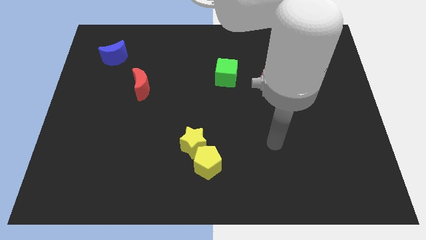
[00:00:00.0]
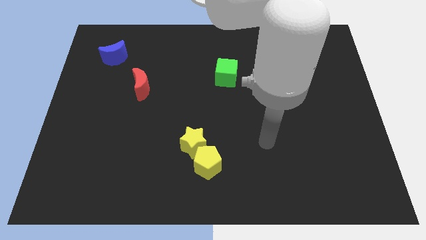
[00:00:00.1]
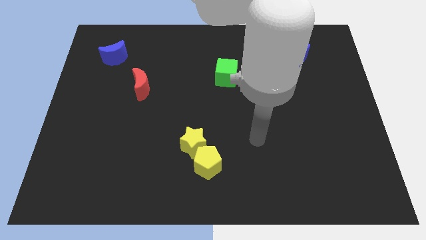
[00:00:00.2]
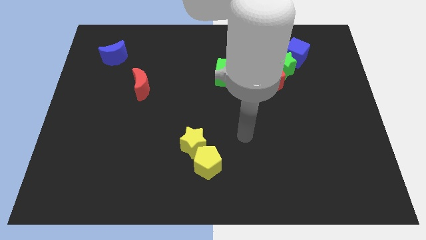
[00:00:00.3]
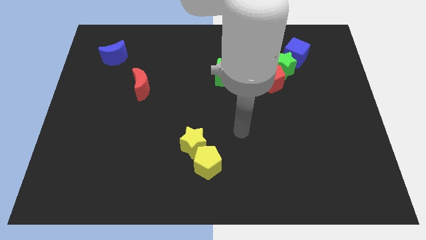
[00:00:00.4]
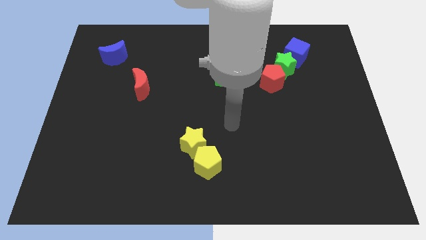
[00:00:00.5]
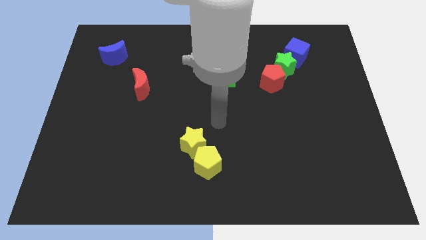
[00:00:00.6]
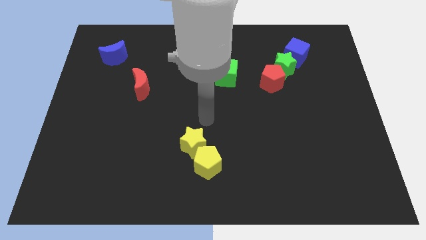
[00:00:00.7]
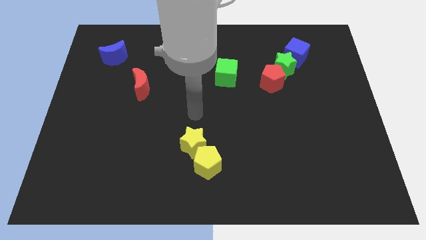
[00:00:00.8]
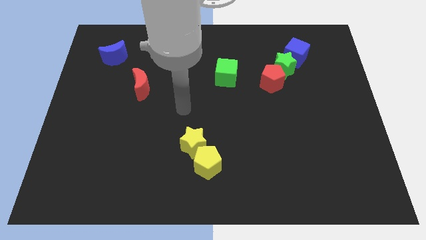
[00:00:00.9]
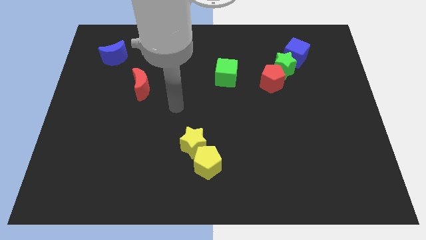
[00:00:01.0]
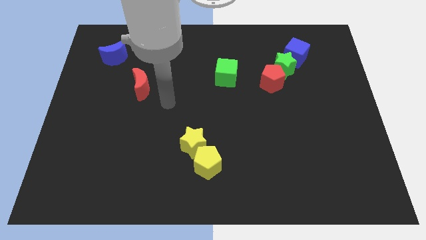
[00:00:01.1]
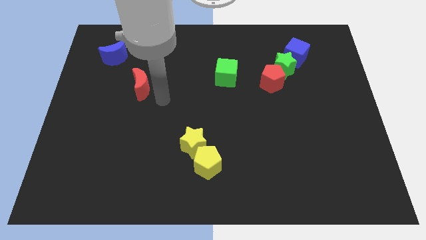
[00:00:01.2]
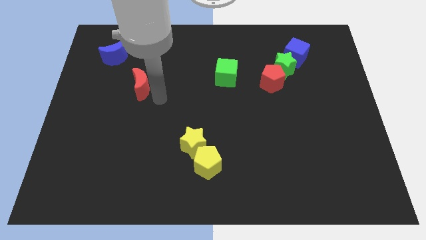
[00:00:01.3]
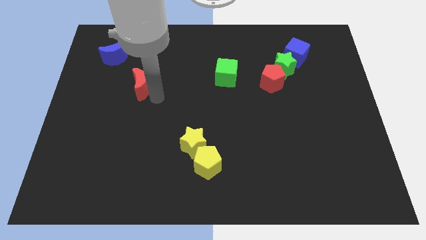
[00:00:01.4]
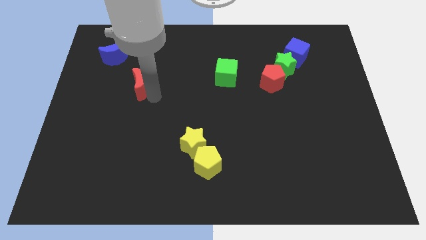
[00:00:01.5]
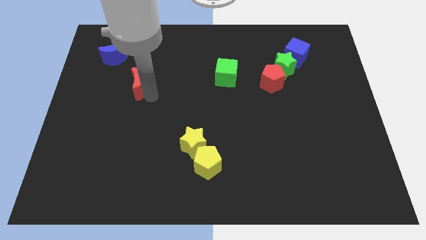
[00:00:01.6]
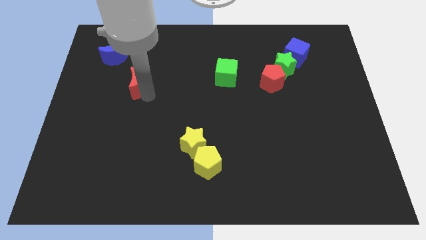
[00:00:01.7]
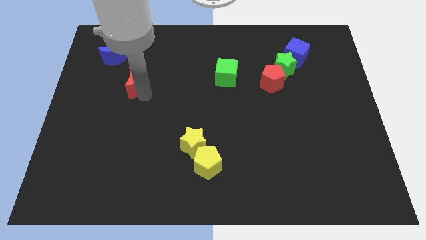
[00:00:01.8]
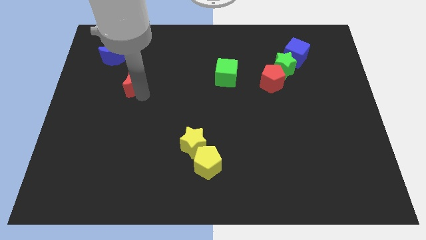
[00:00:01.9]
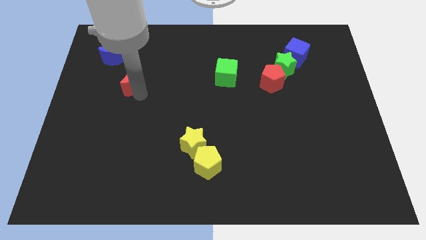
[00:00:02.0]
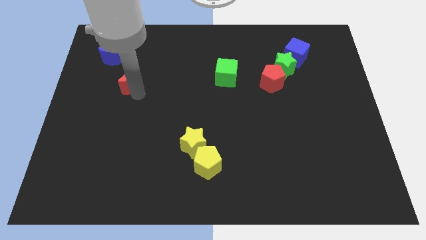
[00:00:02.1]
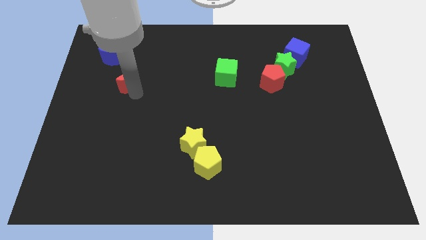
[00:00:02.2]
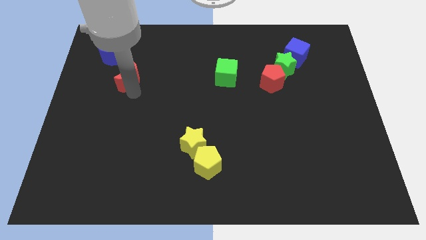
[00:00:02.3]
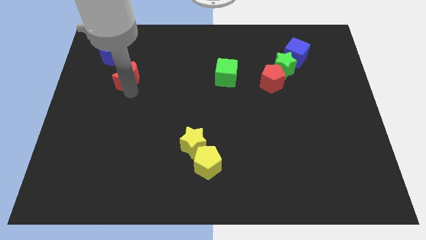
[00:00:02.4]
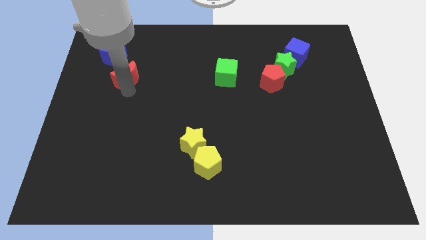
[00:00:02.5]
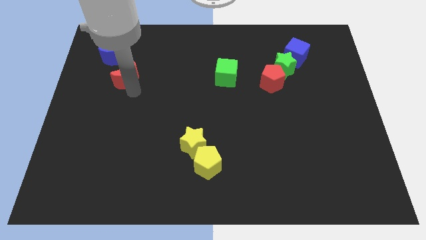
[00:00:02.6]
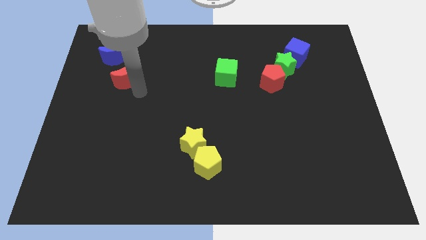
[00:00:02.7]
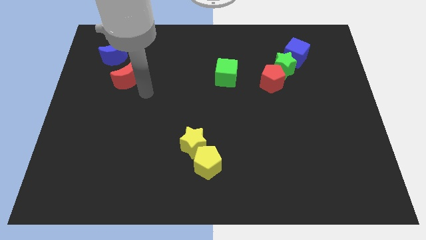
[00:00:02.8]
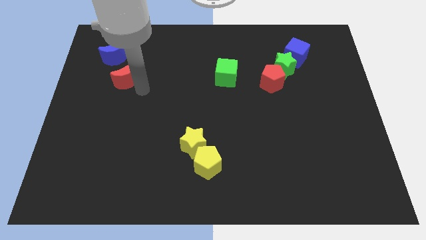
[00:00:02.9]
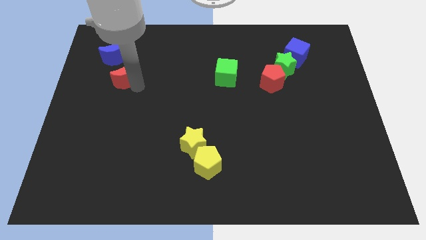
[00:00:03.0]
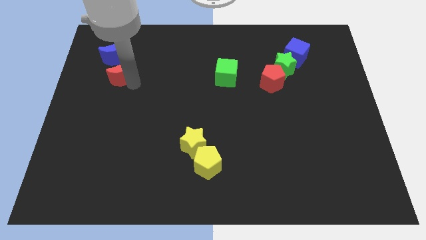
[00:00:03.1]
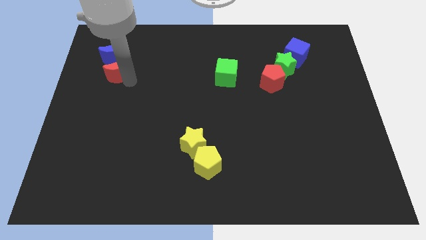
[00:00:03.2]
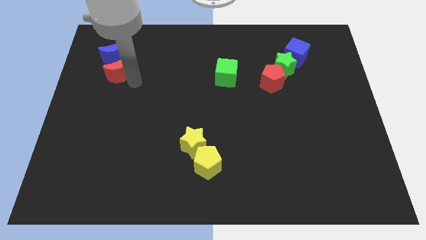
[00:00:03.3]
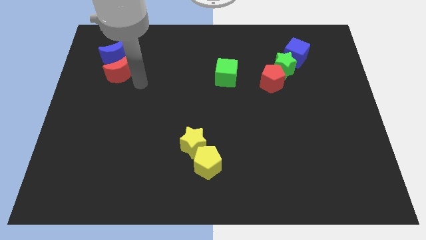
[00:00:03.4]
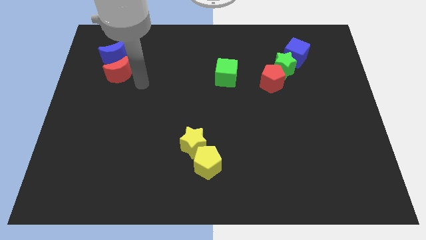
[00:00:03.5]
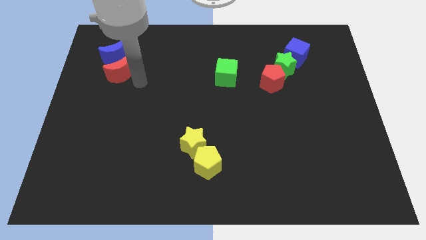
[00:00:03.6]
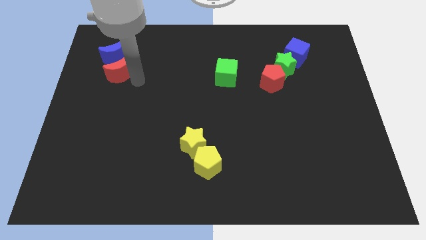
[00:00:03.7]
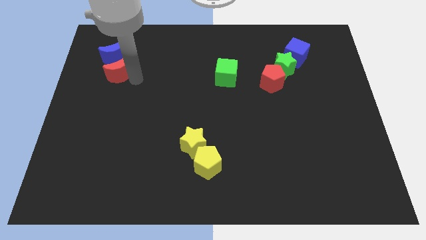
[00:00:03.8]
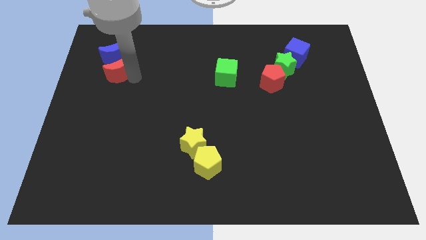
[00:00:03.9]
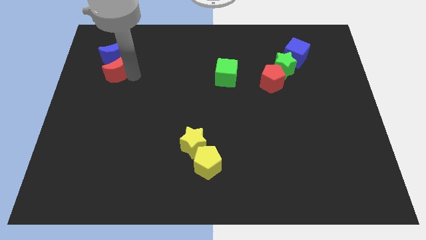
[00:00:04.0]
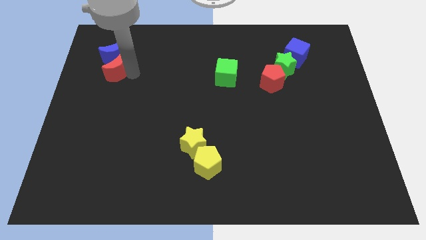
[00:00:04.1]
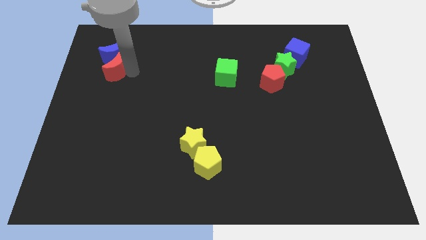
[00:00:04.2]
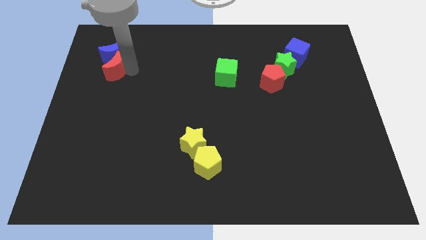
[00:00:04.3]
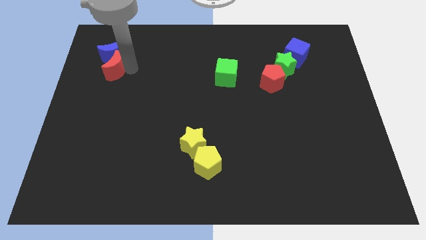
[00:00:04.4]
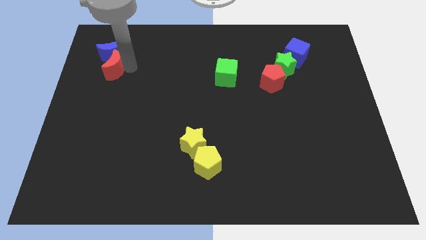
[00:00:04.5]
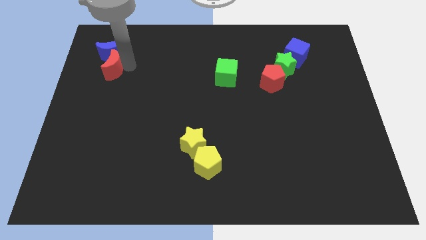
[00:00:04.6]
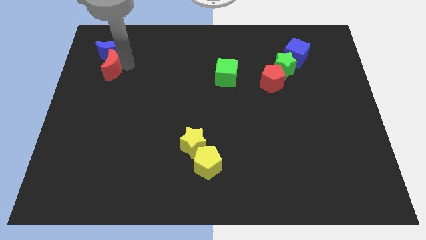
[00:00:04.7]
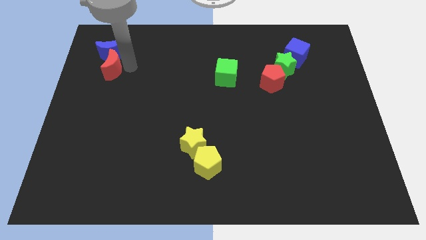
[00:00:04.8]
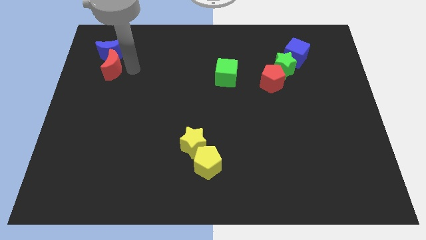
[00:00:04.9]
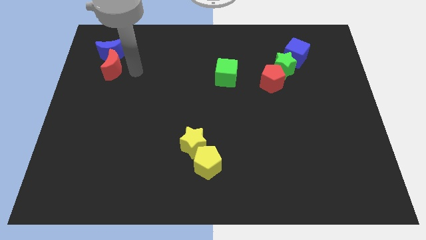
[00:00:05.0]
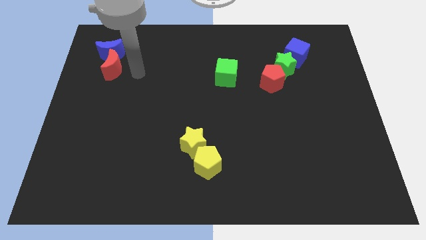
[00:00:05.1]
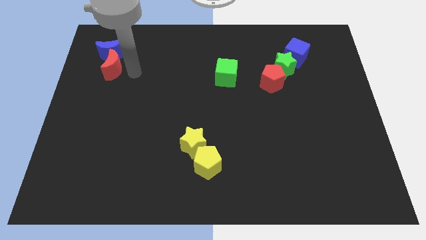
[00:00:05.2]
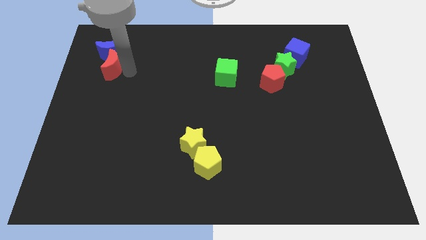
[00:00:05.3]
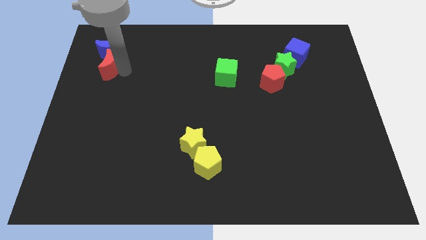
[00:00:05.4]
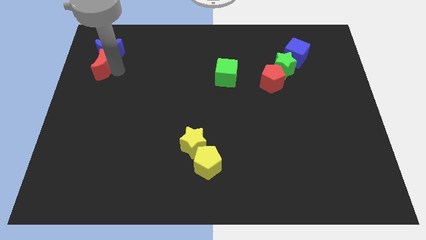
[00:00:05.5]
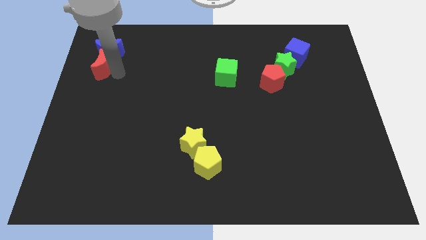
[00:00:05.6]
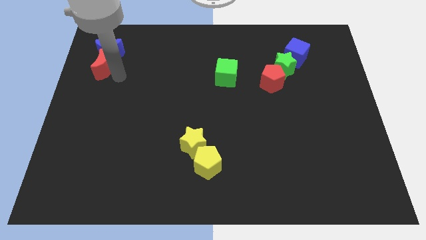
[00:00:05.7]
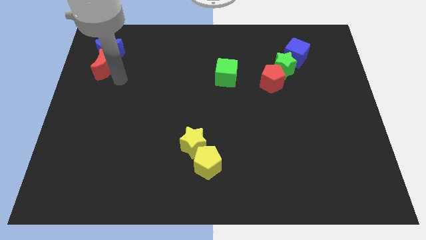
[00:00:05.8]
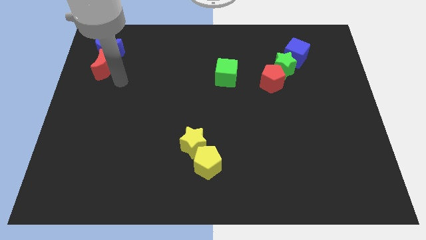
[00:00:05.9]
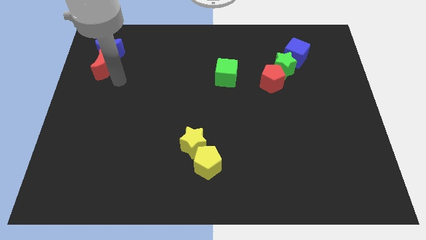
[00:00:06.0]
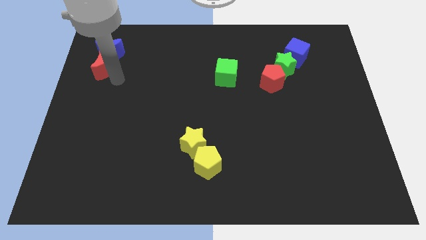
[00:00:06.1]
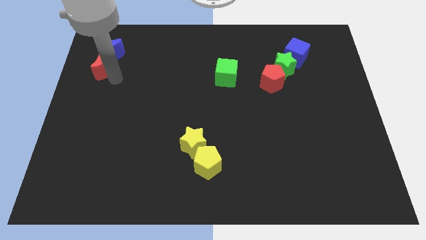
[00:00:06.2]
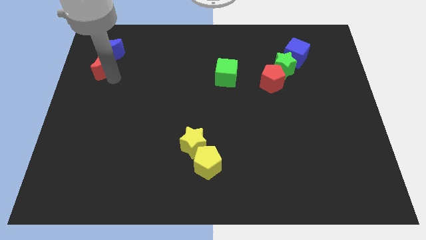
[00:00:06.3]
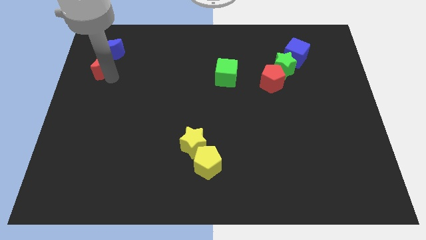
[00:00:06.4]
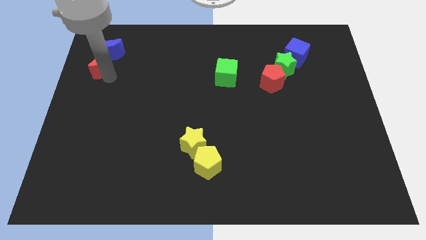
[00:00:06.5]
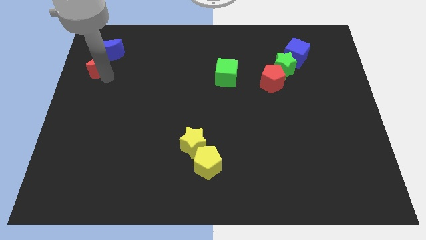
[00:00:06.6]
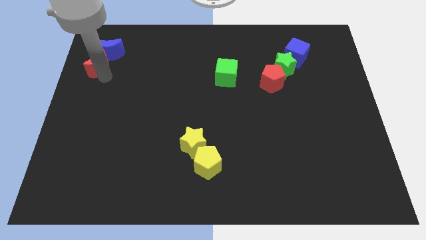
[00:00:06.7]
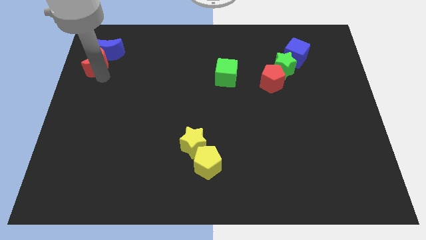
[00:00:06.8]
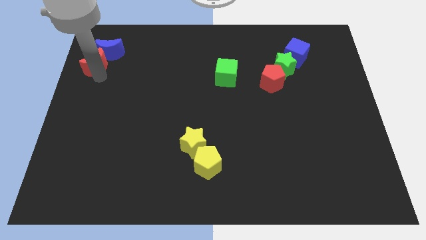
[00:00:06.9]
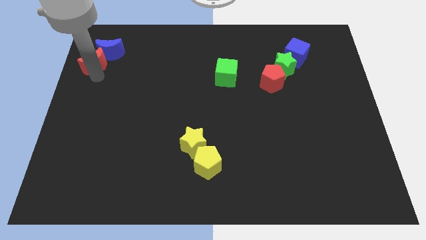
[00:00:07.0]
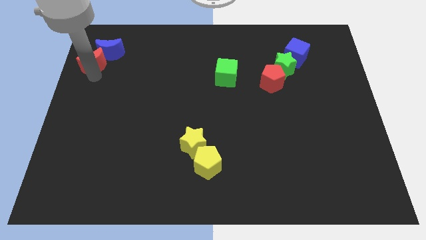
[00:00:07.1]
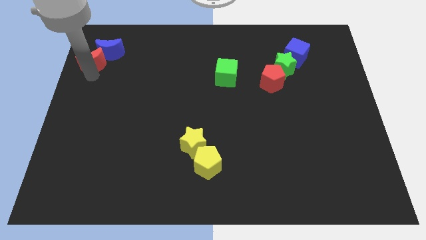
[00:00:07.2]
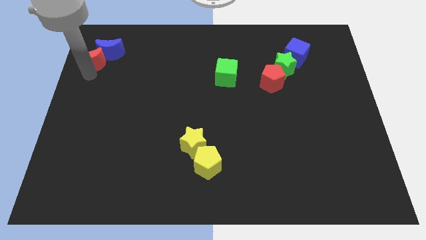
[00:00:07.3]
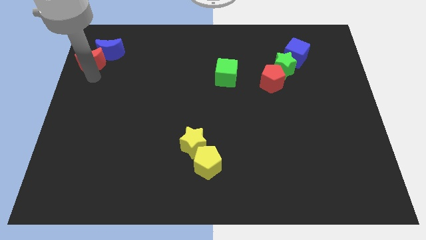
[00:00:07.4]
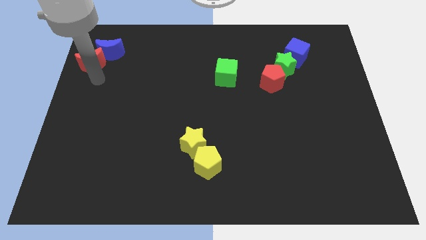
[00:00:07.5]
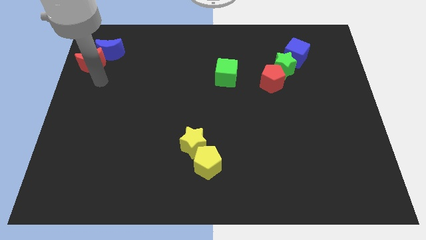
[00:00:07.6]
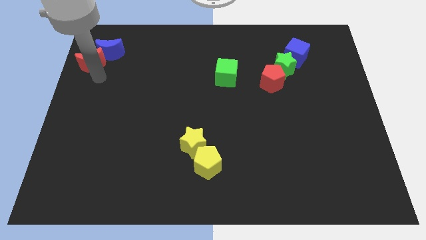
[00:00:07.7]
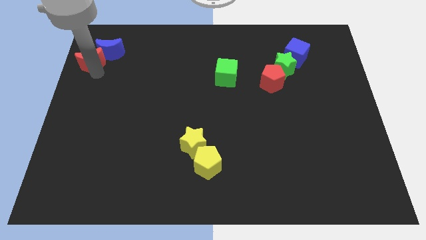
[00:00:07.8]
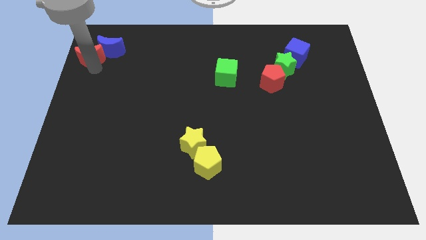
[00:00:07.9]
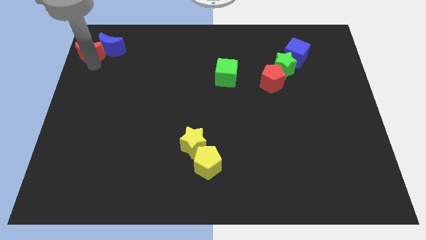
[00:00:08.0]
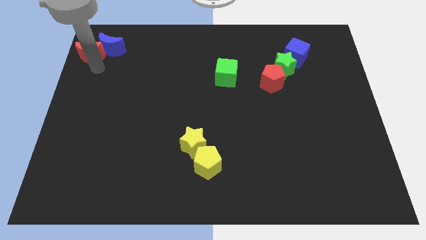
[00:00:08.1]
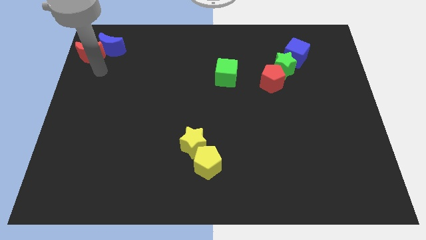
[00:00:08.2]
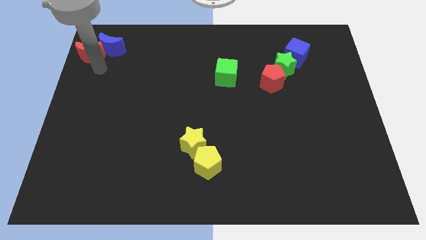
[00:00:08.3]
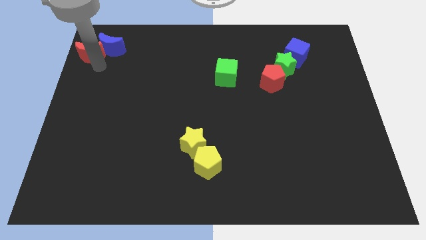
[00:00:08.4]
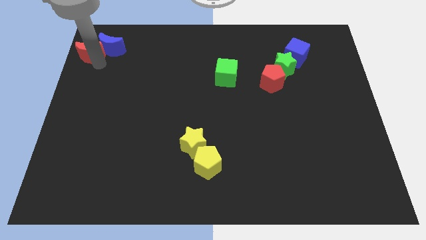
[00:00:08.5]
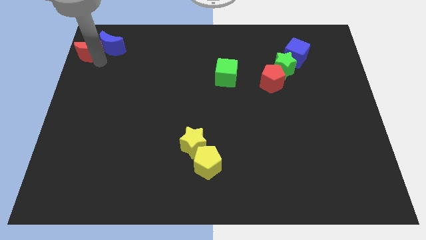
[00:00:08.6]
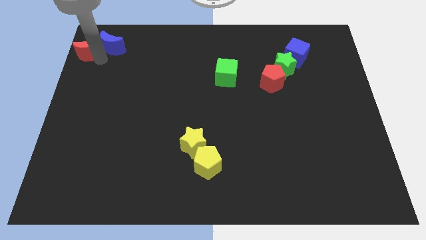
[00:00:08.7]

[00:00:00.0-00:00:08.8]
move the red moon to the top left corner
